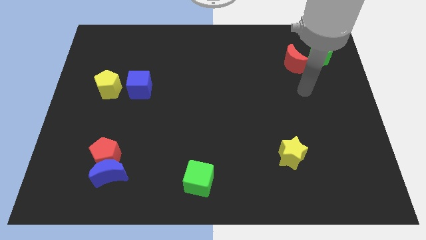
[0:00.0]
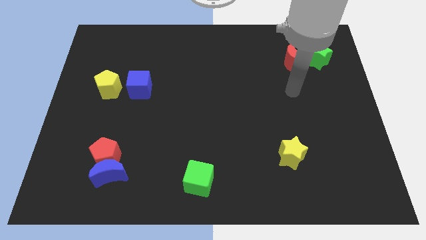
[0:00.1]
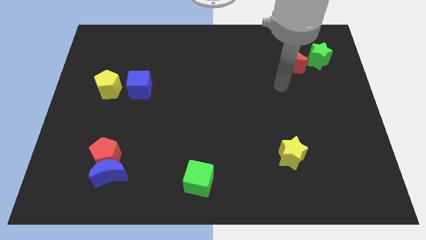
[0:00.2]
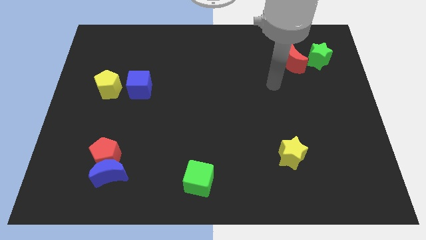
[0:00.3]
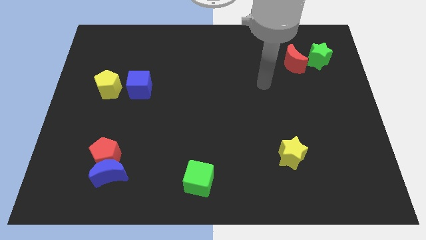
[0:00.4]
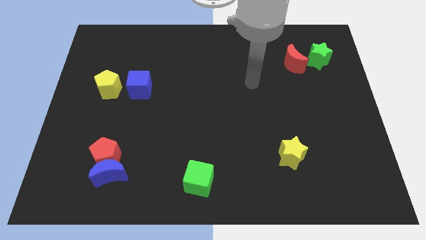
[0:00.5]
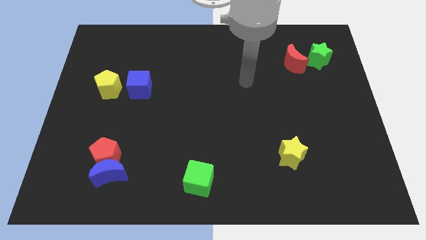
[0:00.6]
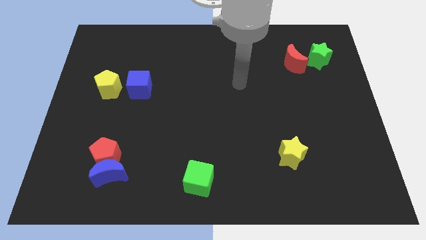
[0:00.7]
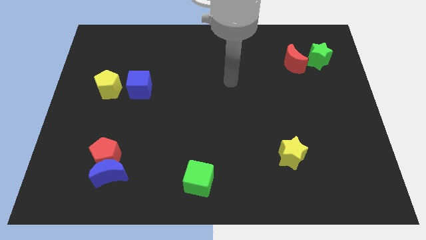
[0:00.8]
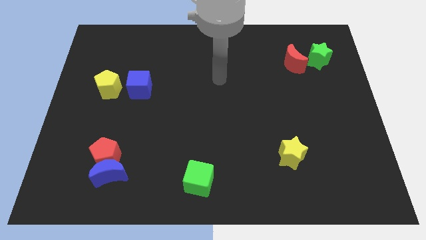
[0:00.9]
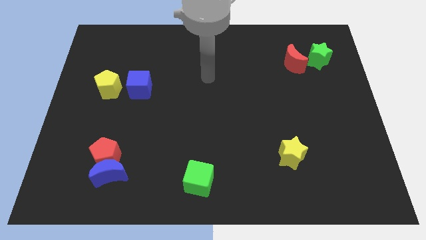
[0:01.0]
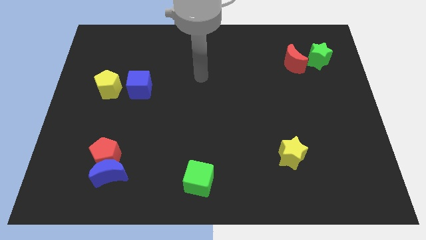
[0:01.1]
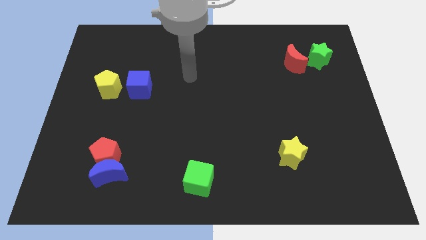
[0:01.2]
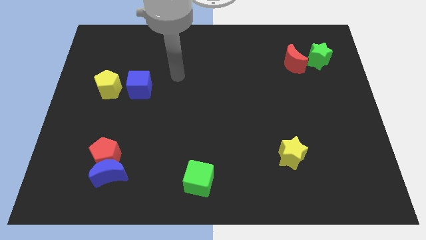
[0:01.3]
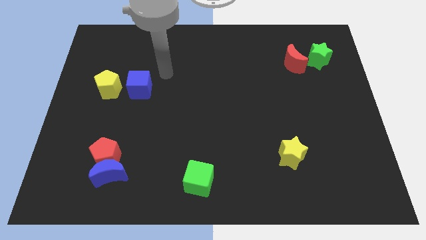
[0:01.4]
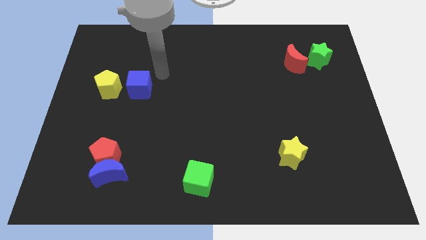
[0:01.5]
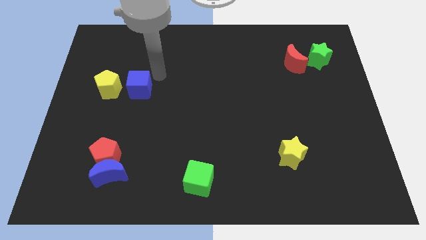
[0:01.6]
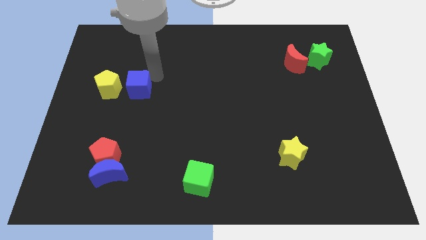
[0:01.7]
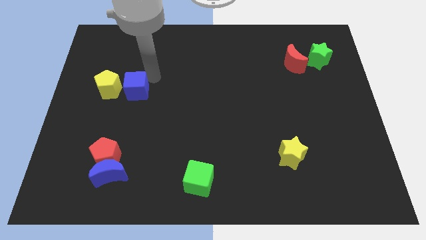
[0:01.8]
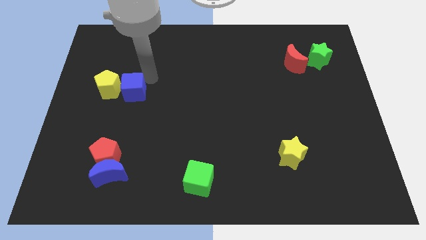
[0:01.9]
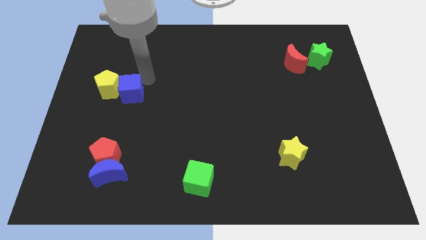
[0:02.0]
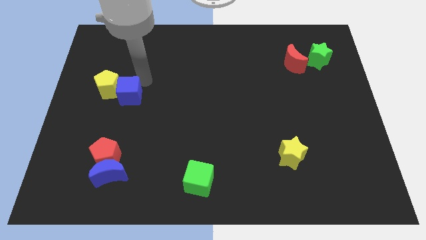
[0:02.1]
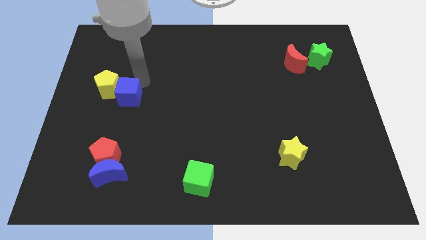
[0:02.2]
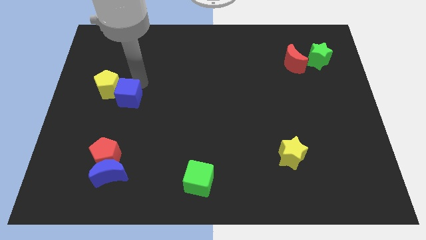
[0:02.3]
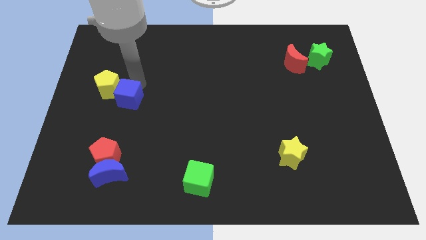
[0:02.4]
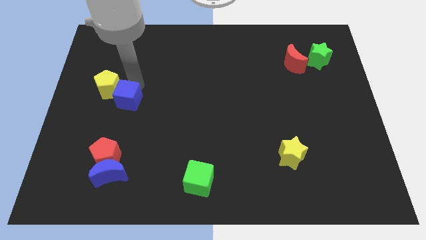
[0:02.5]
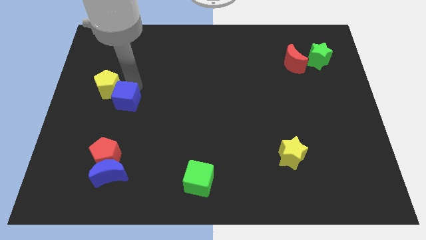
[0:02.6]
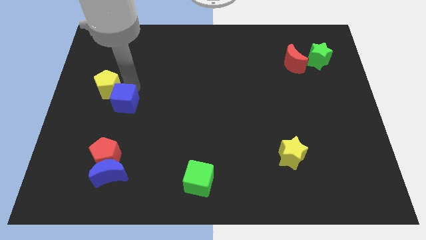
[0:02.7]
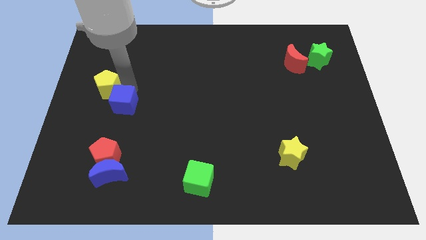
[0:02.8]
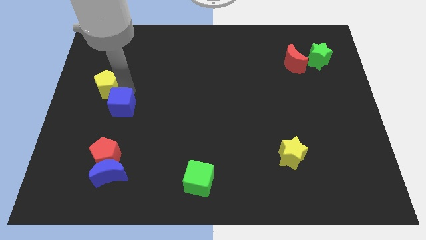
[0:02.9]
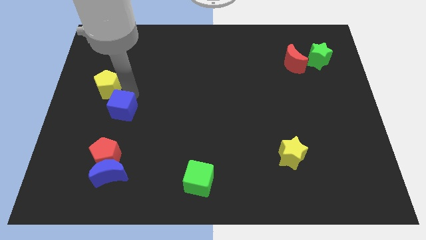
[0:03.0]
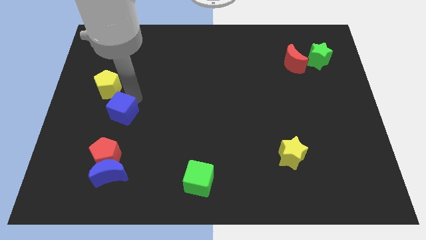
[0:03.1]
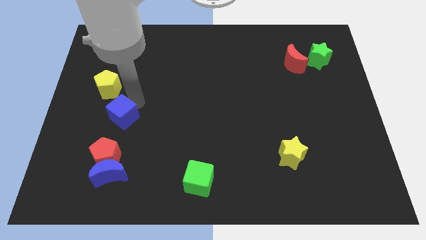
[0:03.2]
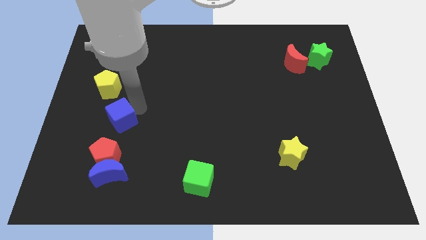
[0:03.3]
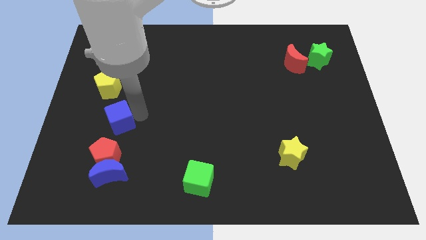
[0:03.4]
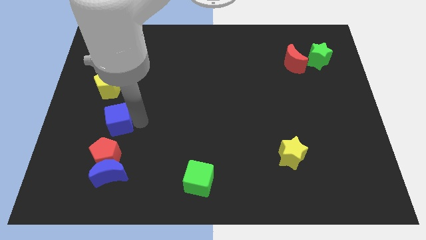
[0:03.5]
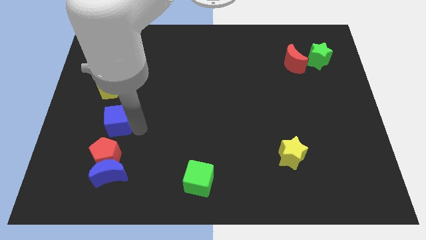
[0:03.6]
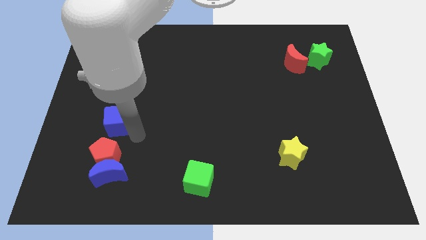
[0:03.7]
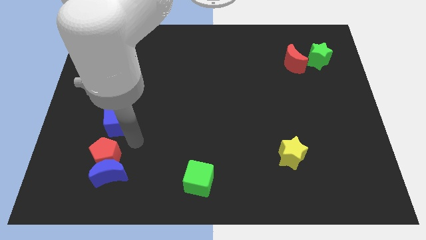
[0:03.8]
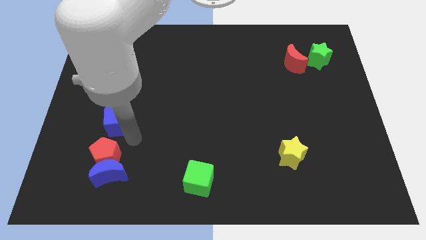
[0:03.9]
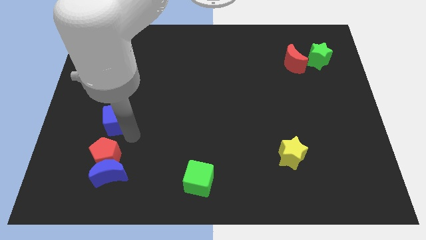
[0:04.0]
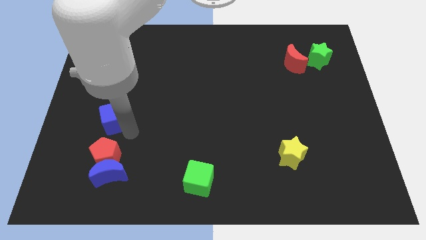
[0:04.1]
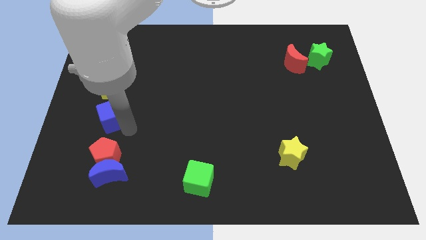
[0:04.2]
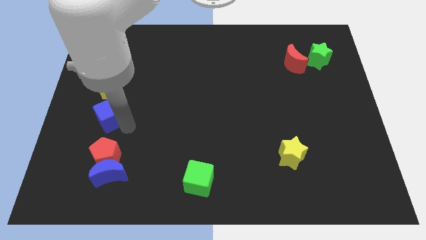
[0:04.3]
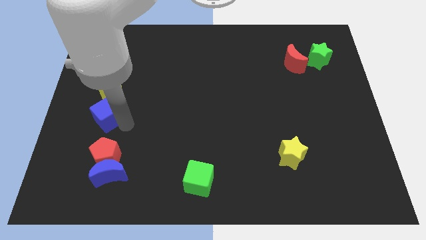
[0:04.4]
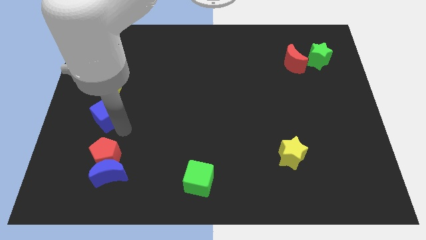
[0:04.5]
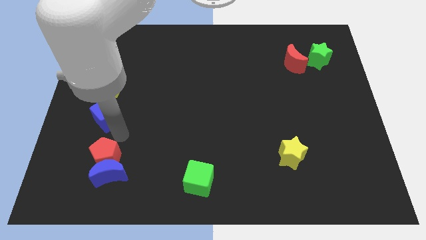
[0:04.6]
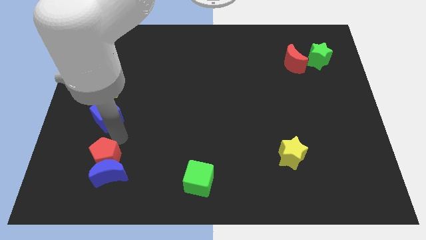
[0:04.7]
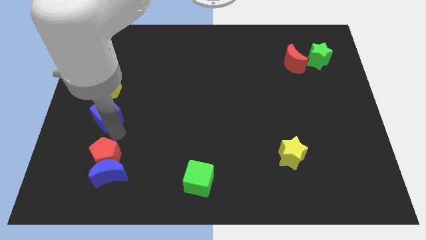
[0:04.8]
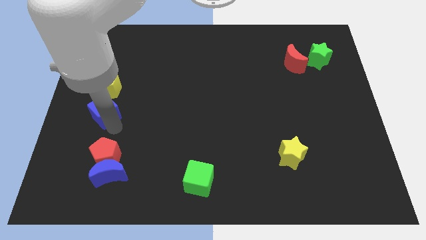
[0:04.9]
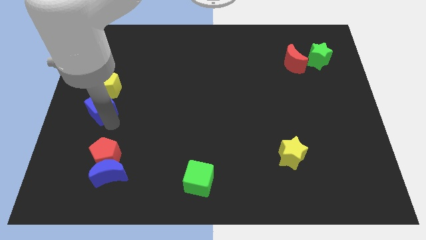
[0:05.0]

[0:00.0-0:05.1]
slide the blue cube to the left side

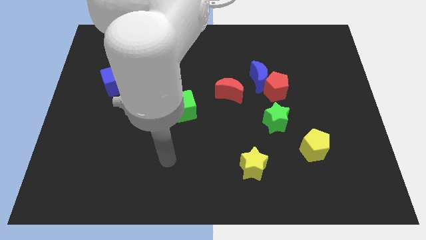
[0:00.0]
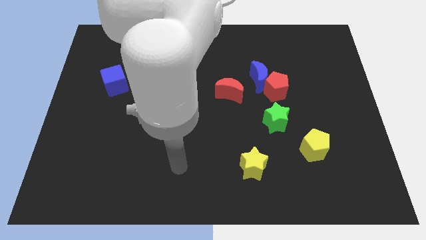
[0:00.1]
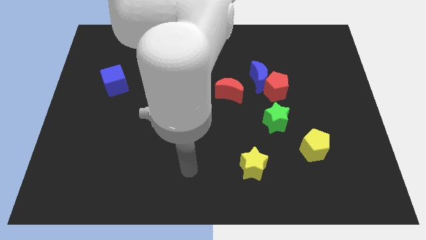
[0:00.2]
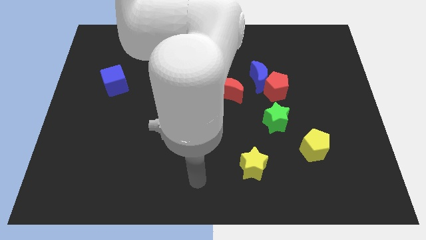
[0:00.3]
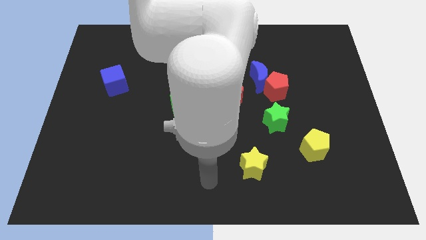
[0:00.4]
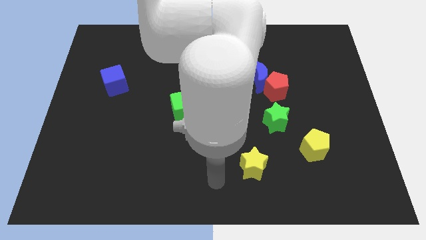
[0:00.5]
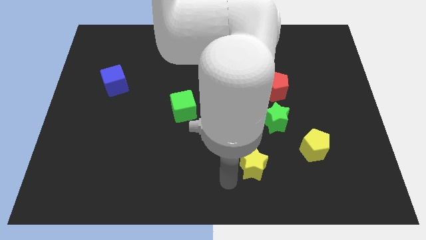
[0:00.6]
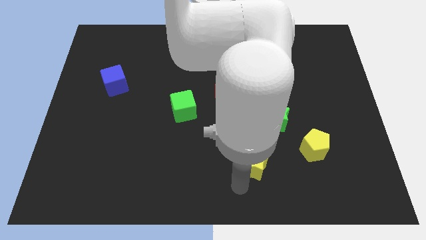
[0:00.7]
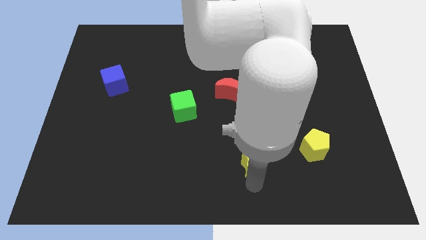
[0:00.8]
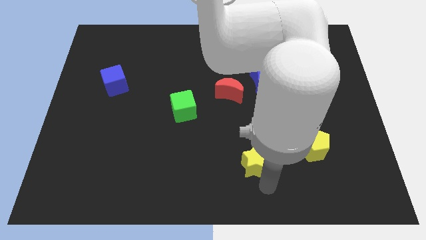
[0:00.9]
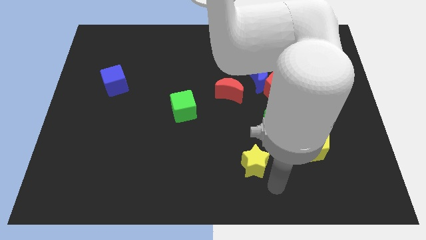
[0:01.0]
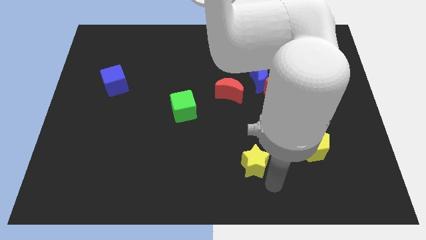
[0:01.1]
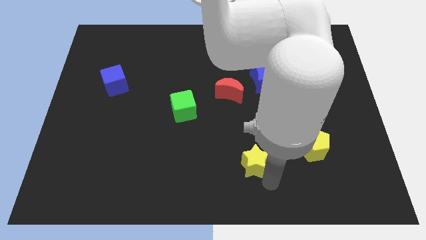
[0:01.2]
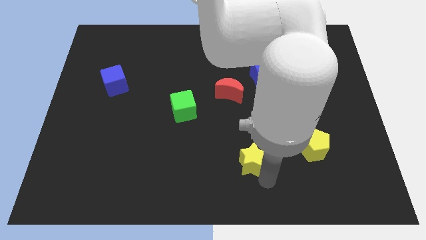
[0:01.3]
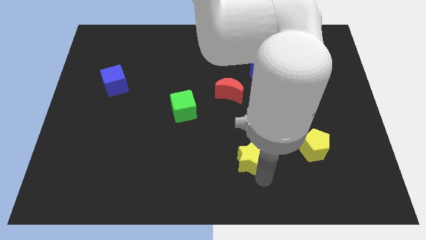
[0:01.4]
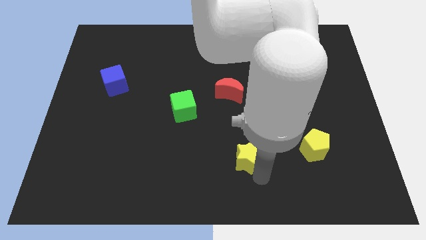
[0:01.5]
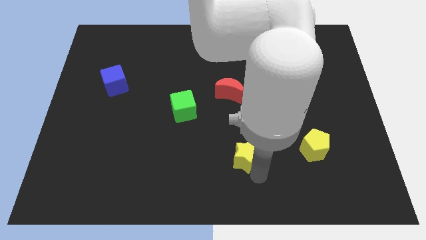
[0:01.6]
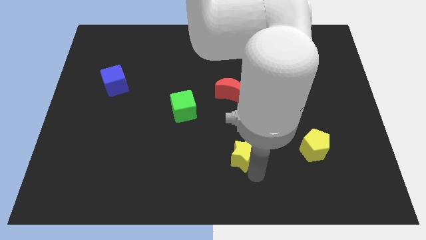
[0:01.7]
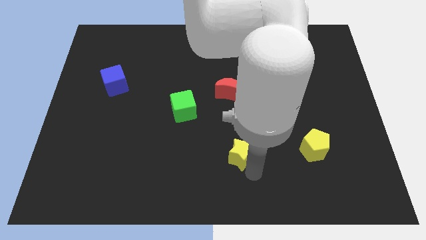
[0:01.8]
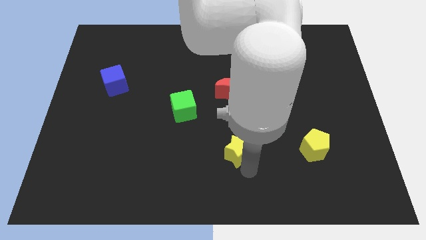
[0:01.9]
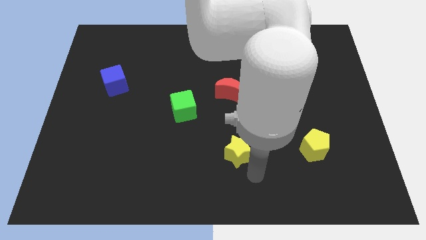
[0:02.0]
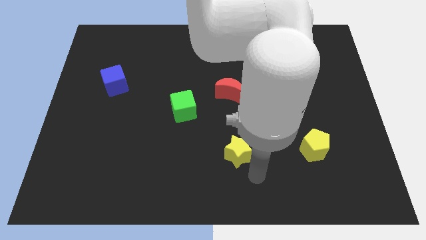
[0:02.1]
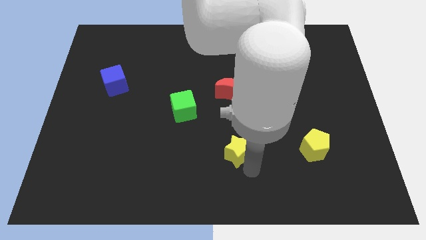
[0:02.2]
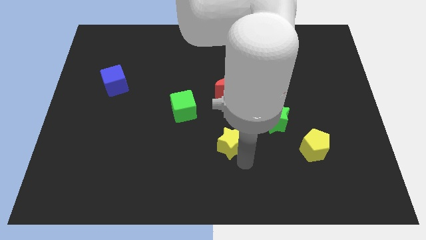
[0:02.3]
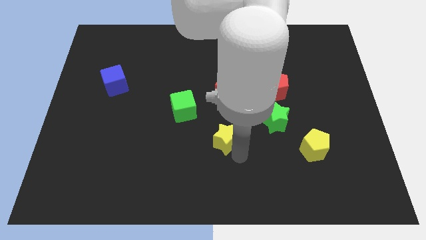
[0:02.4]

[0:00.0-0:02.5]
put the yellow star to the center of the board

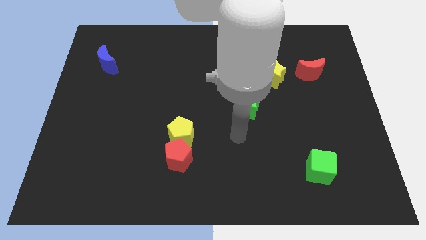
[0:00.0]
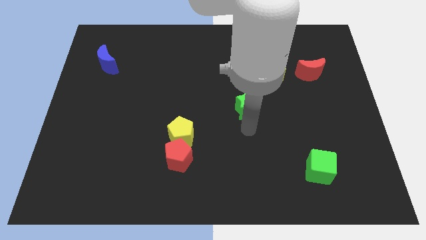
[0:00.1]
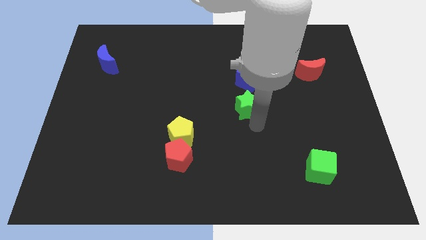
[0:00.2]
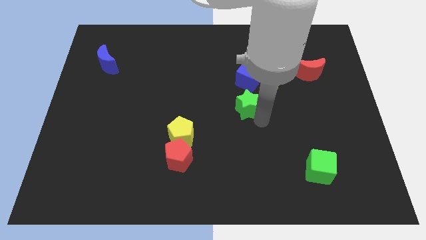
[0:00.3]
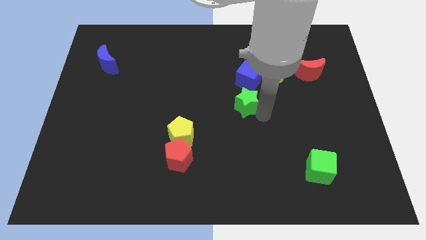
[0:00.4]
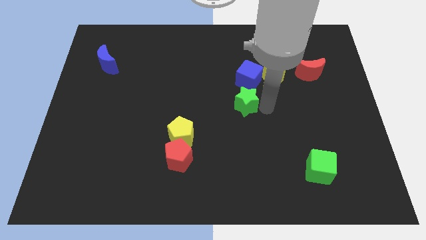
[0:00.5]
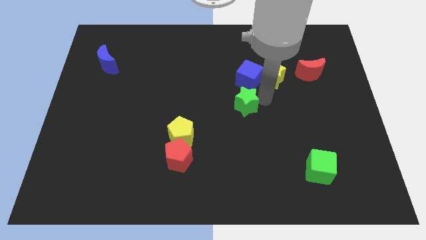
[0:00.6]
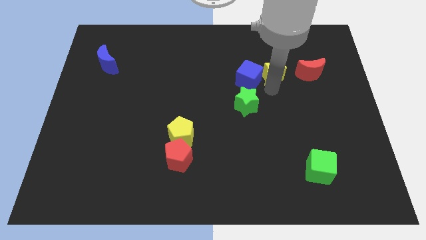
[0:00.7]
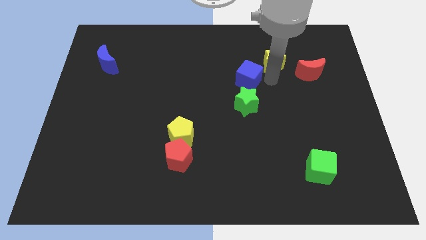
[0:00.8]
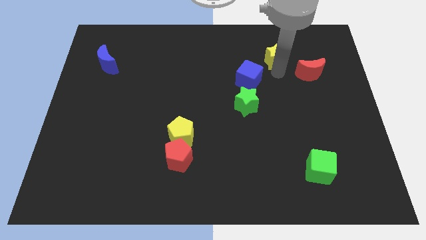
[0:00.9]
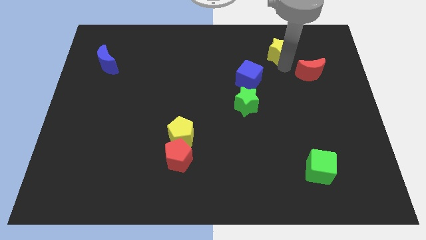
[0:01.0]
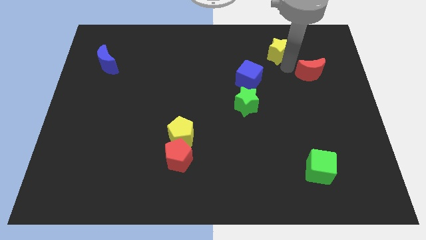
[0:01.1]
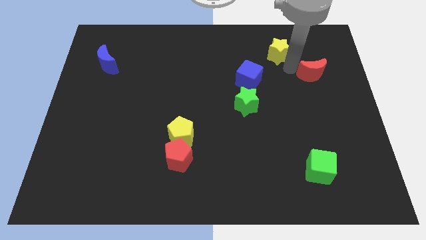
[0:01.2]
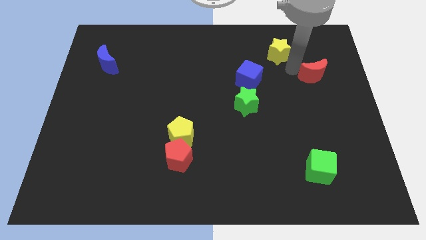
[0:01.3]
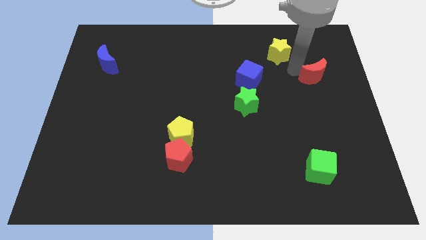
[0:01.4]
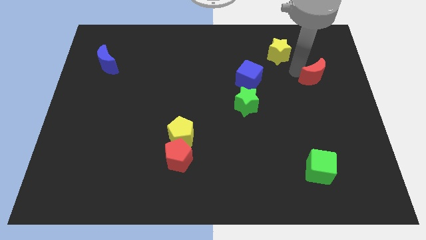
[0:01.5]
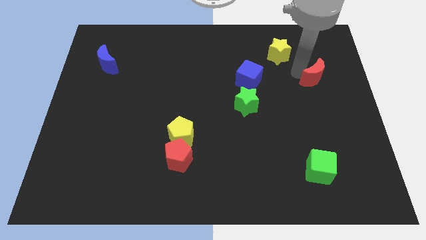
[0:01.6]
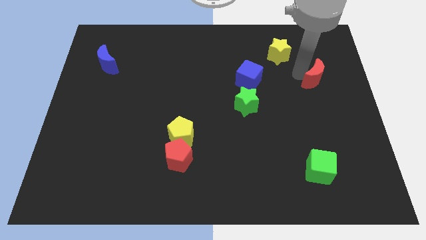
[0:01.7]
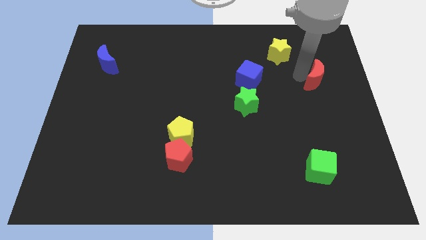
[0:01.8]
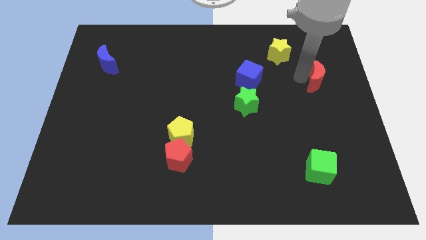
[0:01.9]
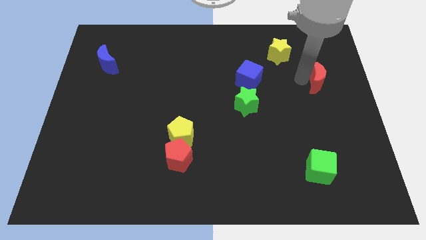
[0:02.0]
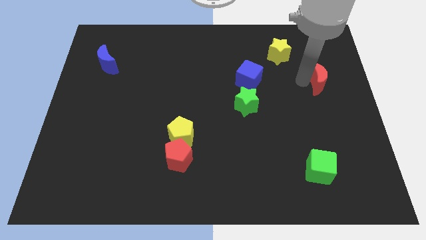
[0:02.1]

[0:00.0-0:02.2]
move the red moon to the right side of the board
